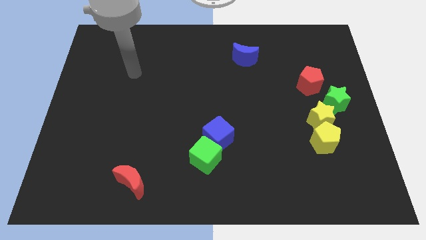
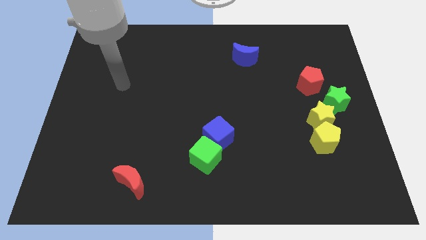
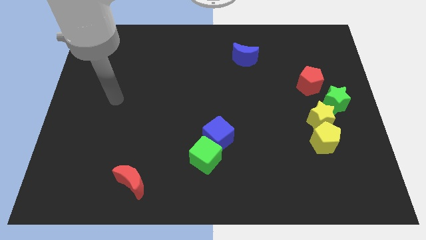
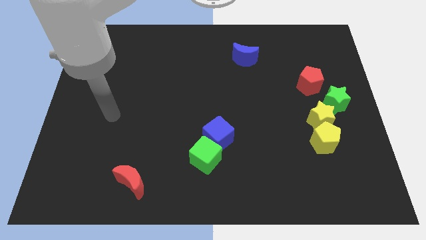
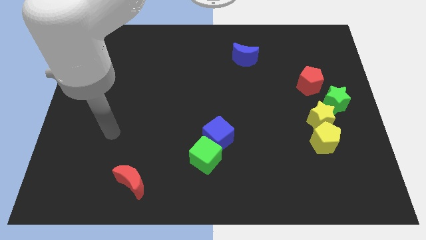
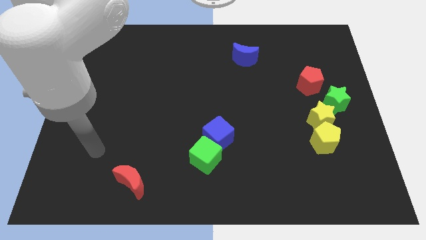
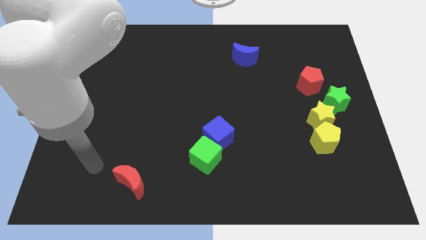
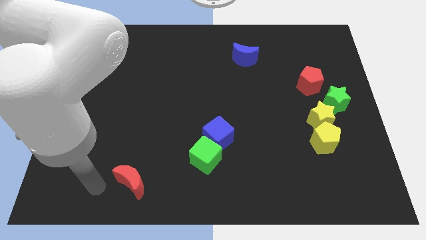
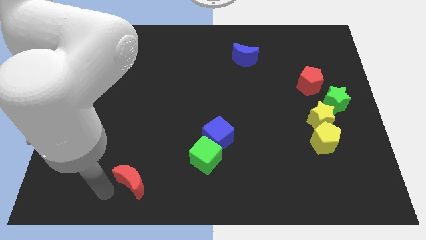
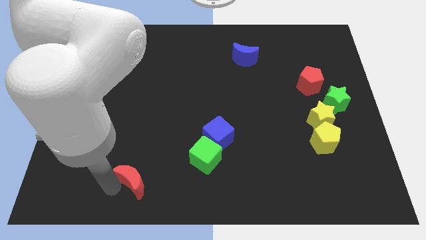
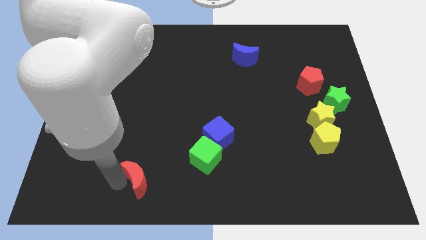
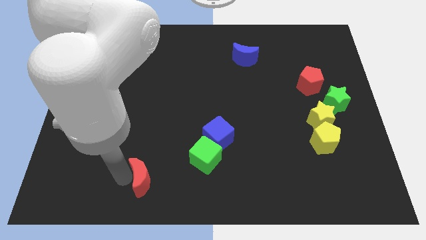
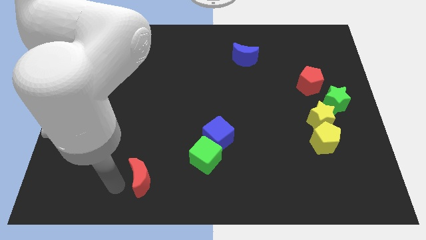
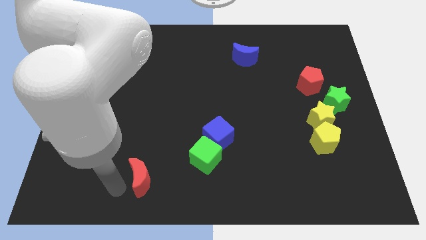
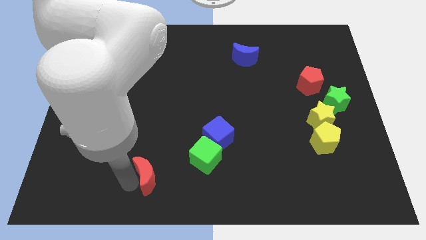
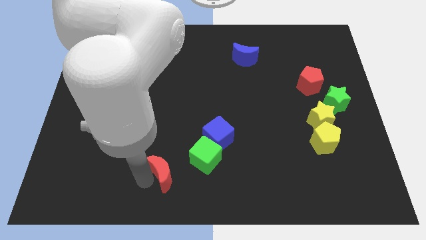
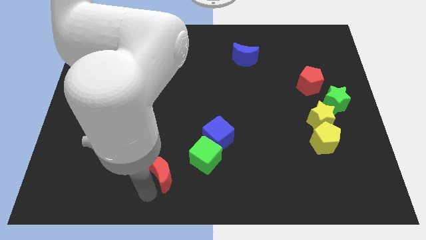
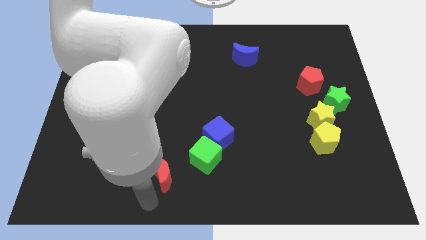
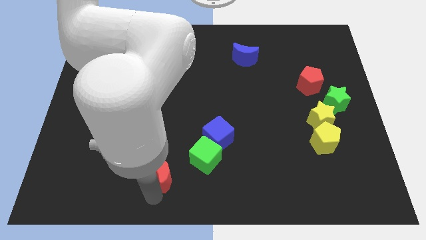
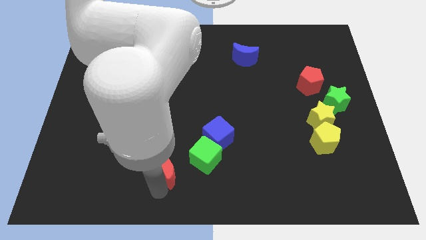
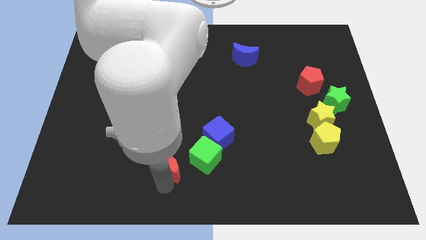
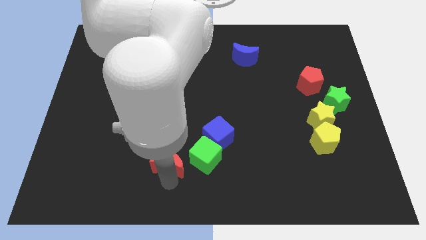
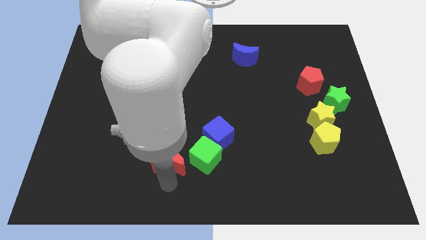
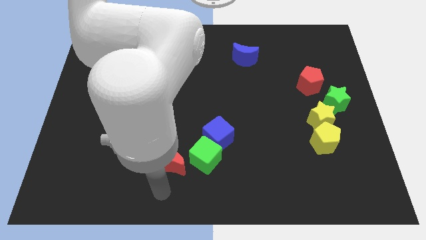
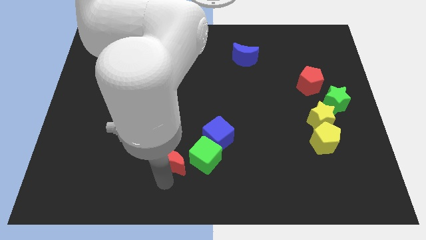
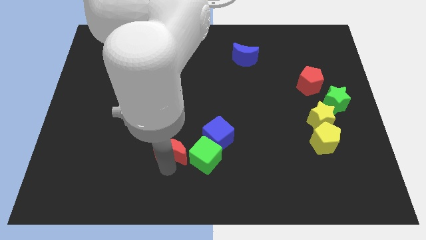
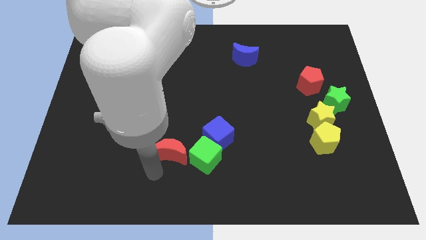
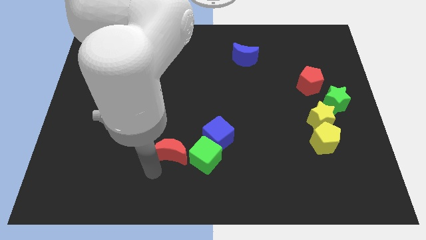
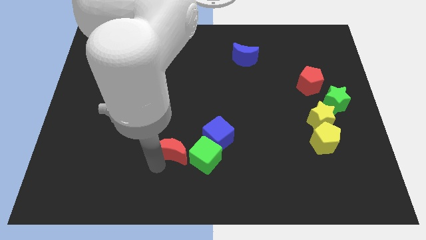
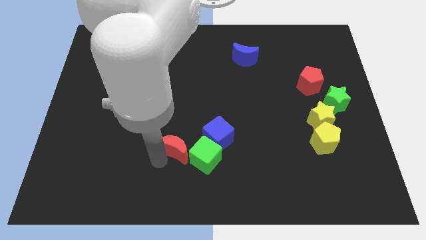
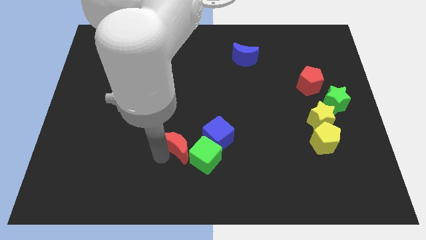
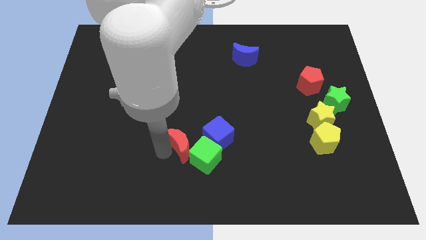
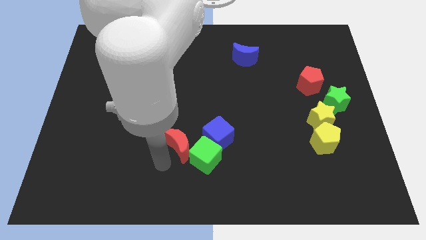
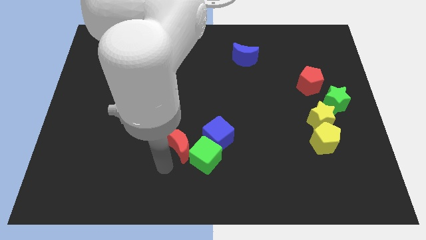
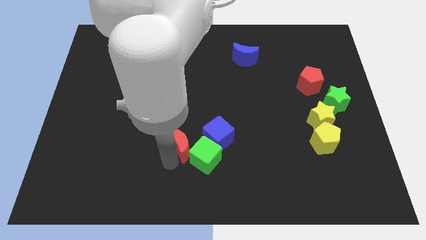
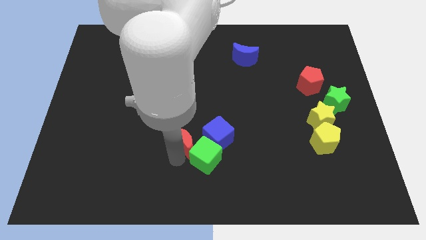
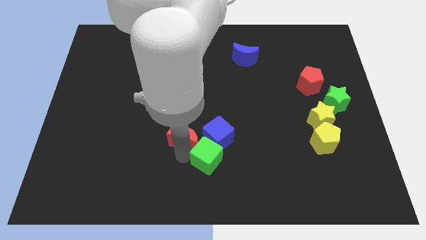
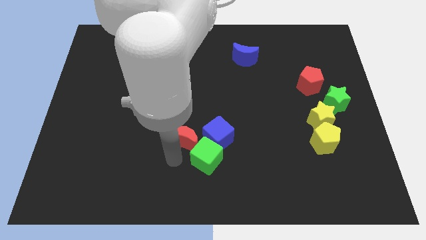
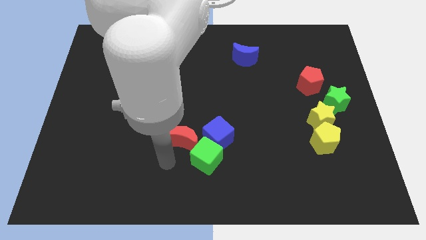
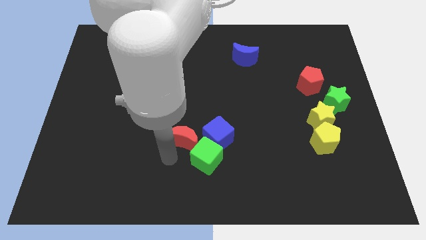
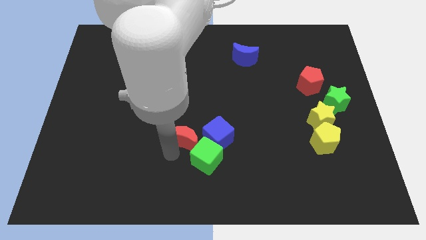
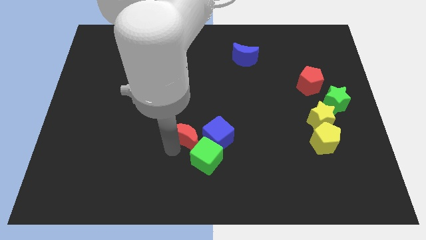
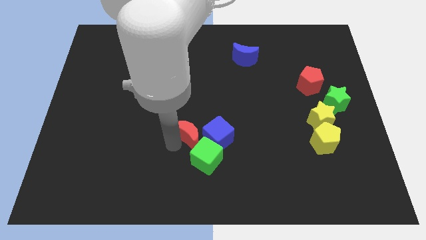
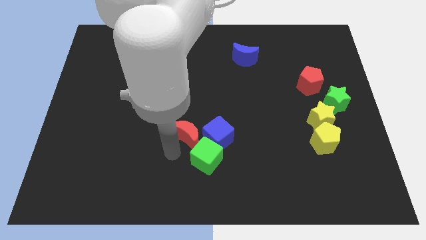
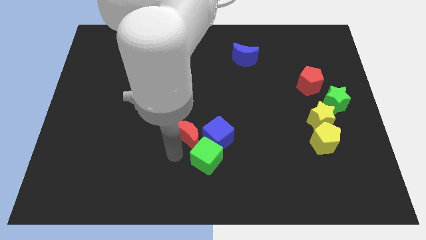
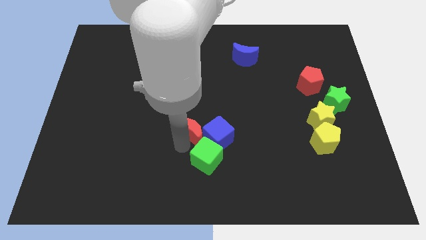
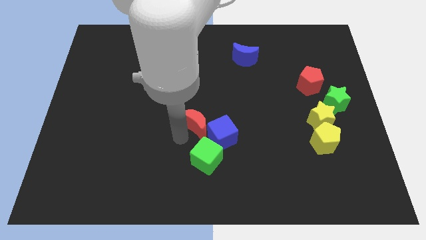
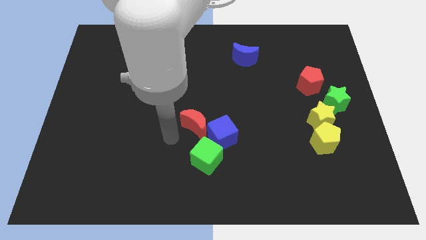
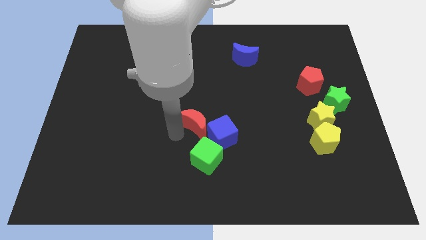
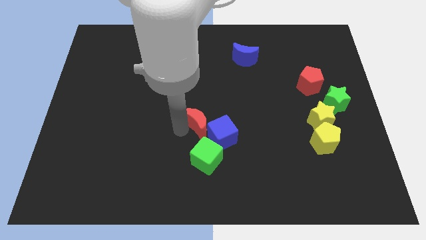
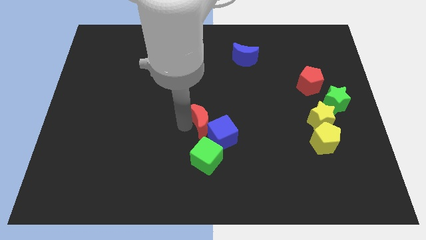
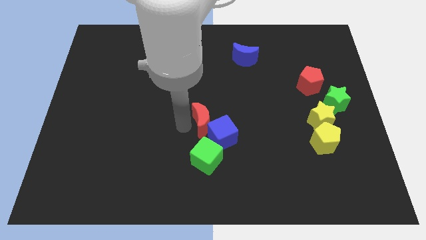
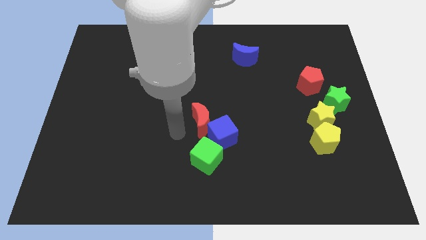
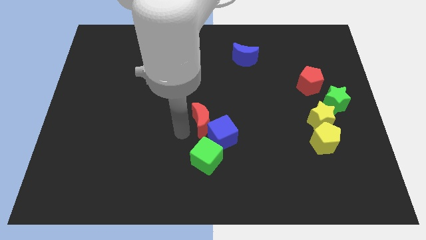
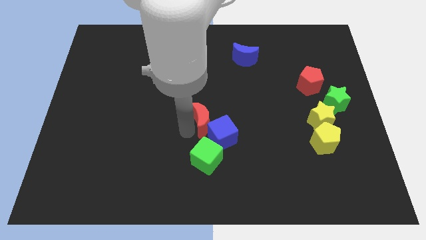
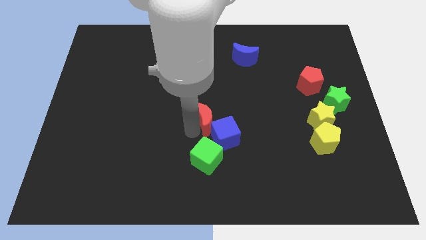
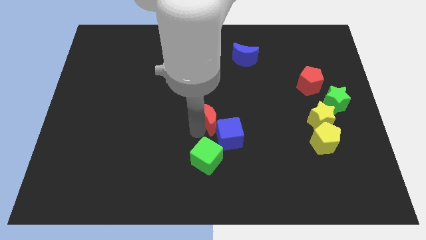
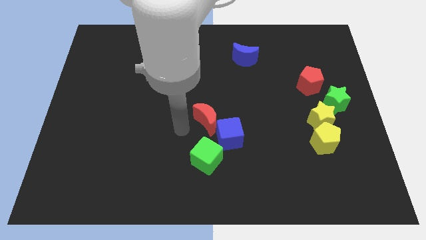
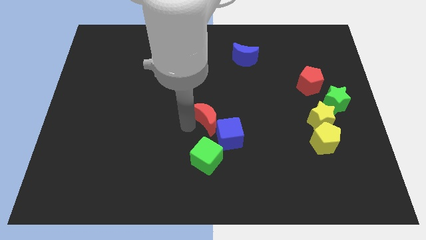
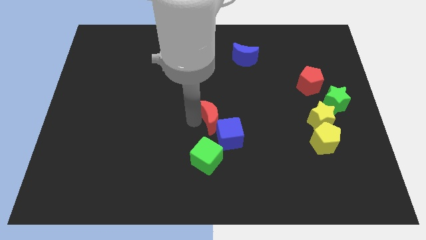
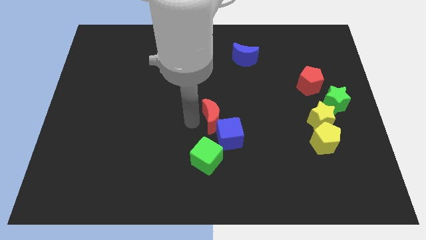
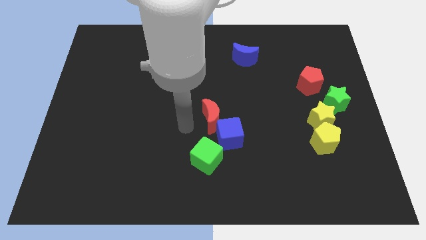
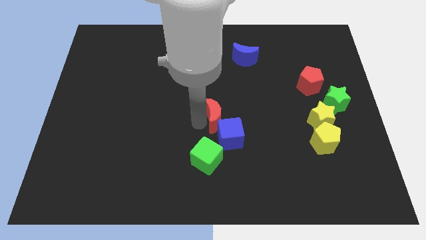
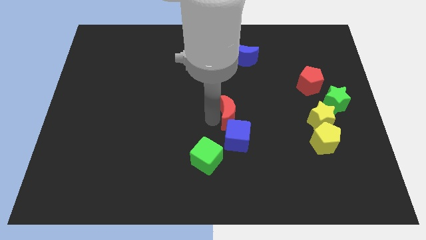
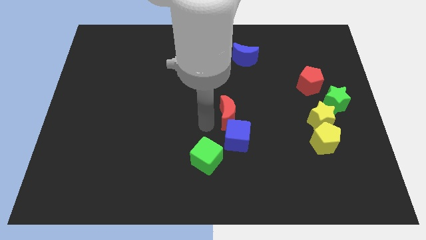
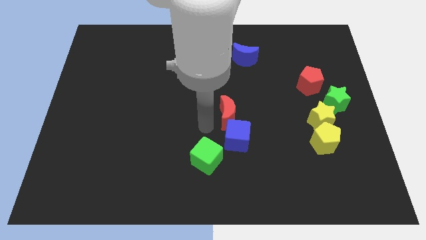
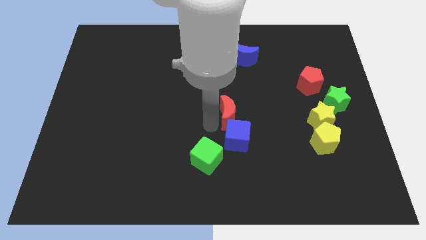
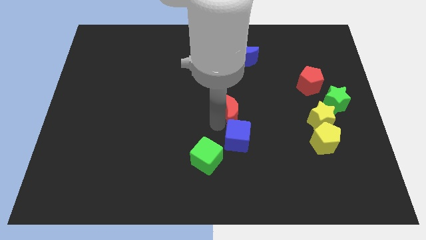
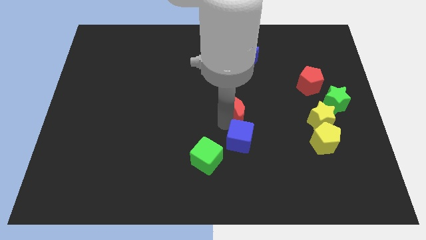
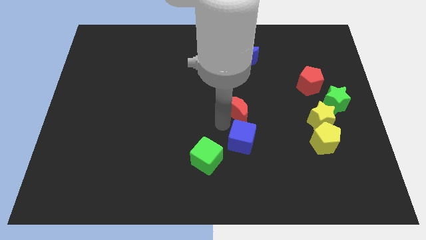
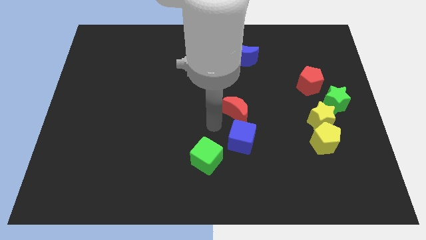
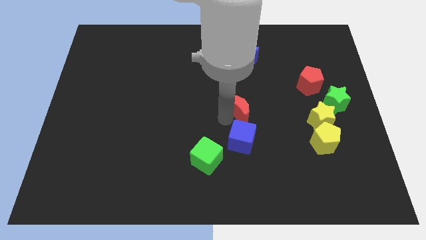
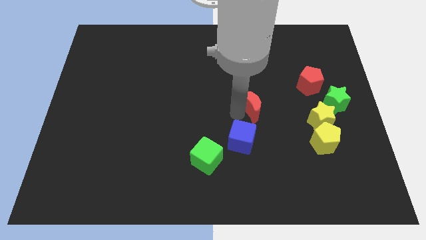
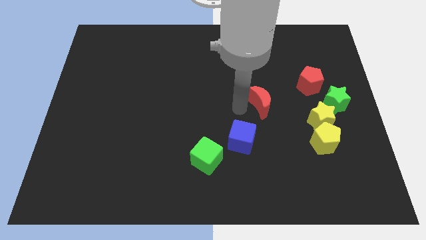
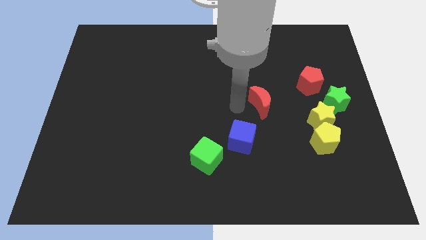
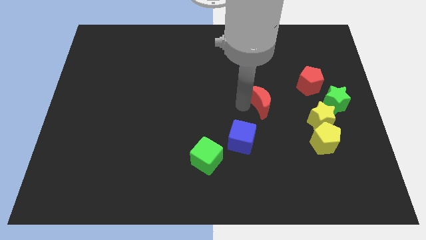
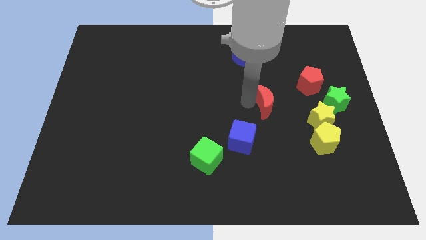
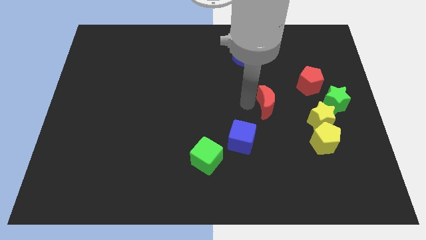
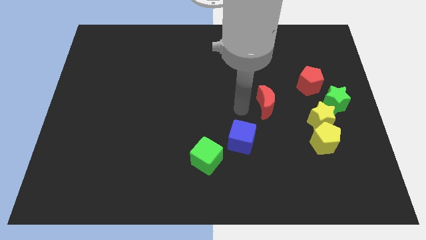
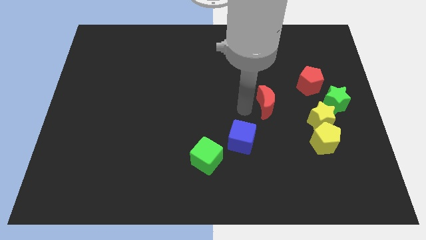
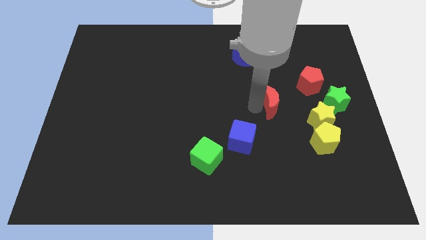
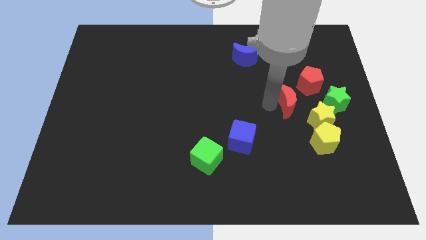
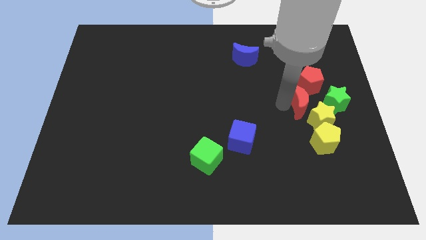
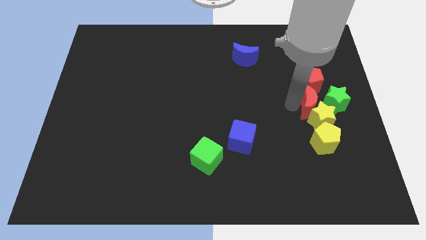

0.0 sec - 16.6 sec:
push the red moon next to the green star
